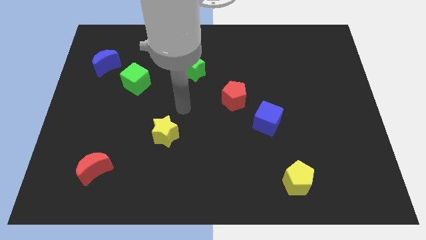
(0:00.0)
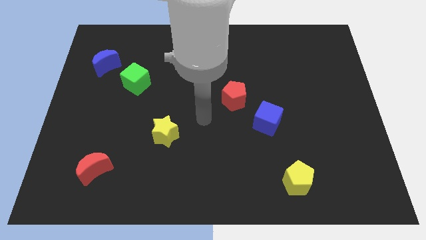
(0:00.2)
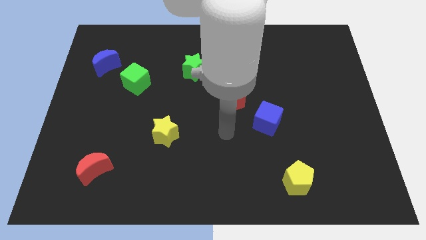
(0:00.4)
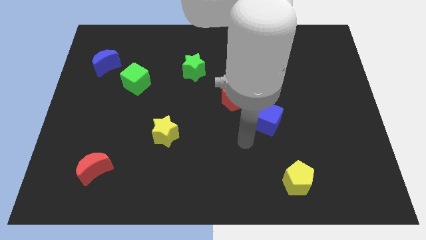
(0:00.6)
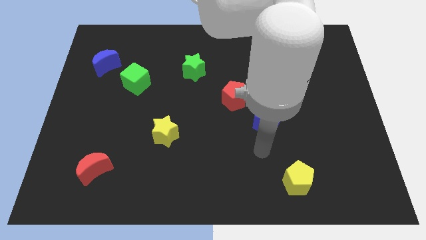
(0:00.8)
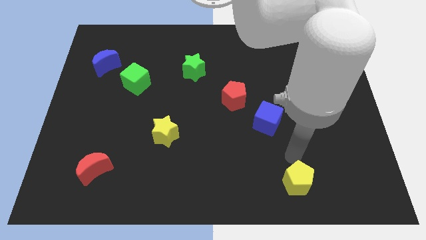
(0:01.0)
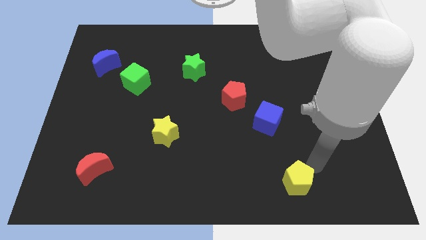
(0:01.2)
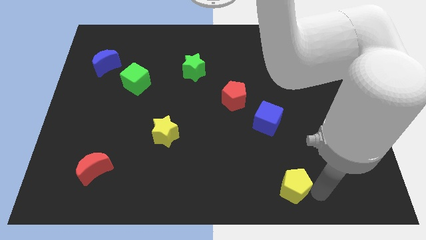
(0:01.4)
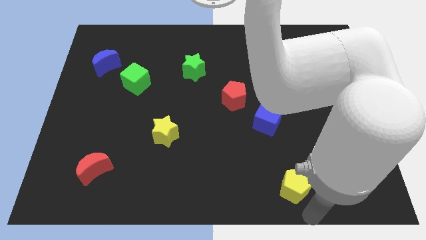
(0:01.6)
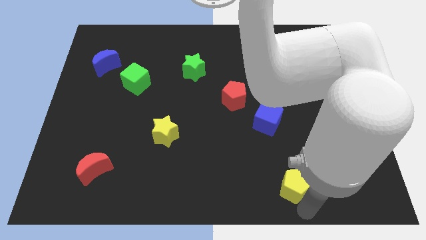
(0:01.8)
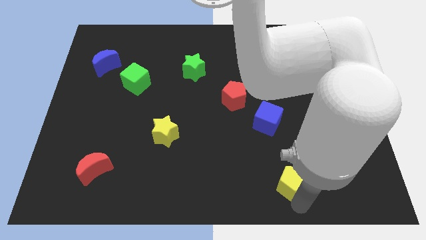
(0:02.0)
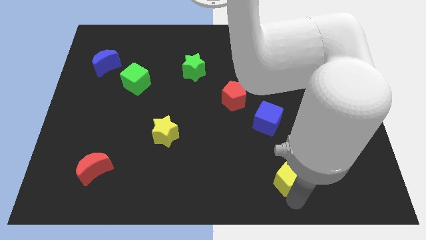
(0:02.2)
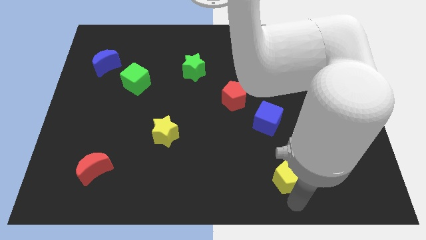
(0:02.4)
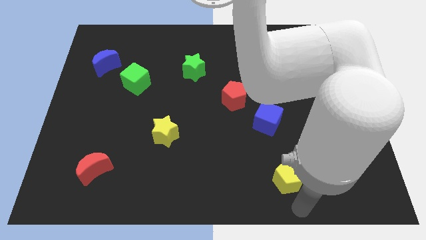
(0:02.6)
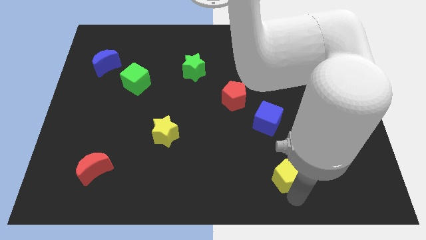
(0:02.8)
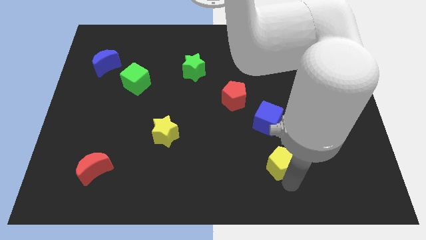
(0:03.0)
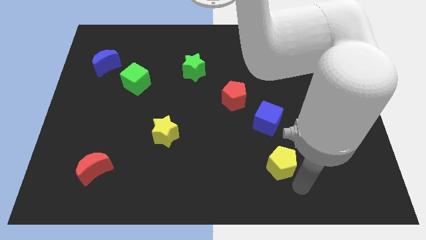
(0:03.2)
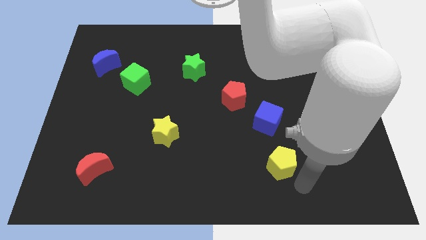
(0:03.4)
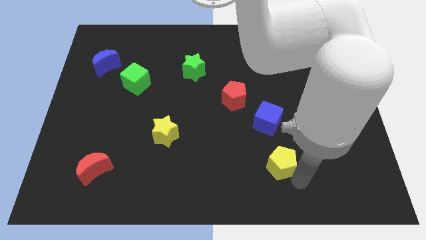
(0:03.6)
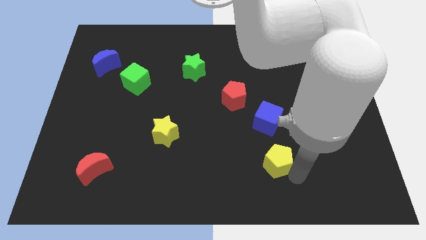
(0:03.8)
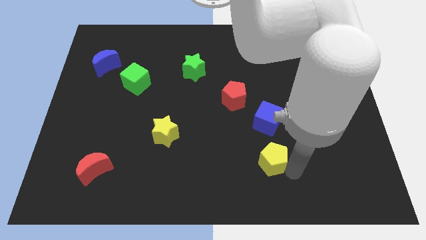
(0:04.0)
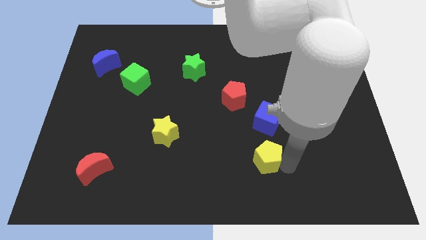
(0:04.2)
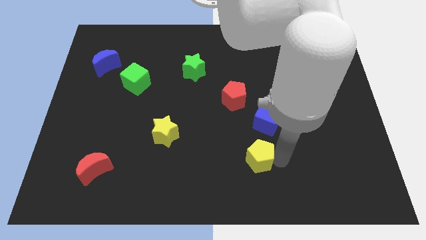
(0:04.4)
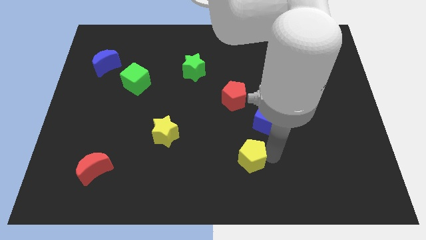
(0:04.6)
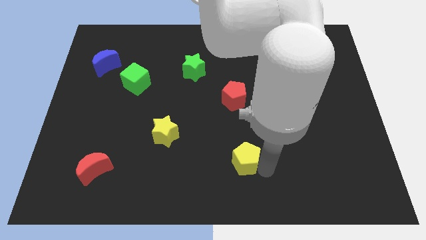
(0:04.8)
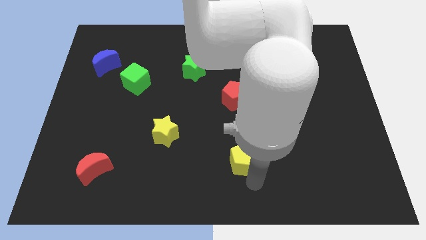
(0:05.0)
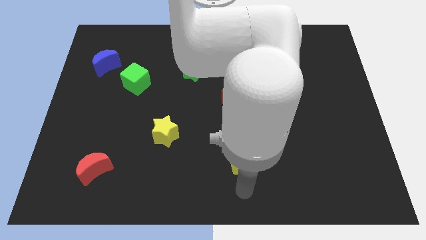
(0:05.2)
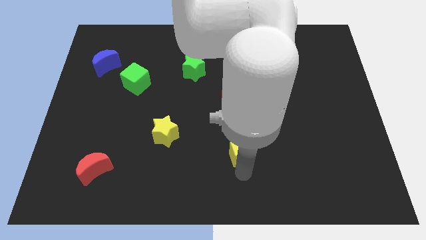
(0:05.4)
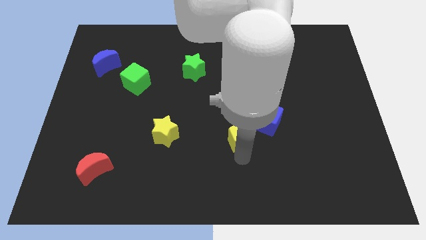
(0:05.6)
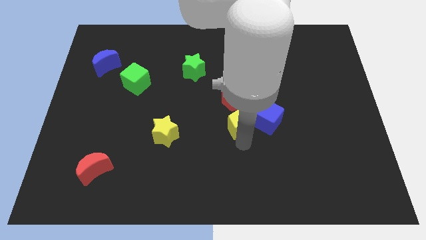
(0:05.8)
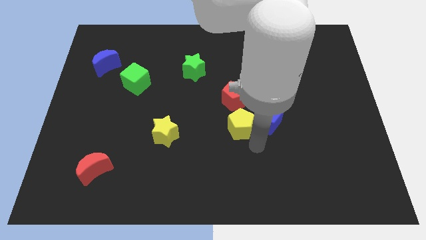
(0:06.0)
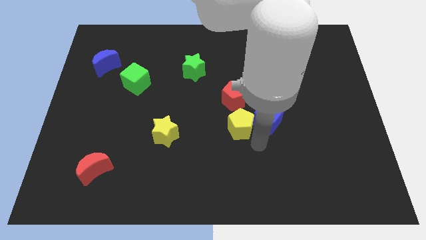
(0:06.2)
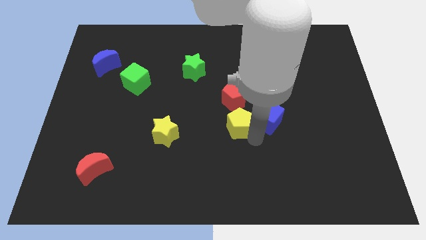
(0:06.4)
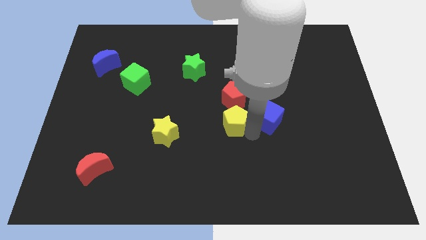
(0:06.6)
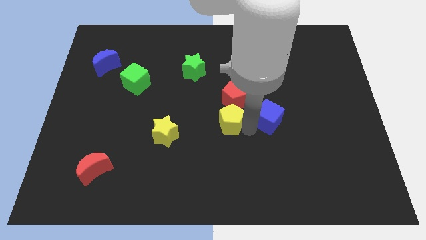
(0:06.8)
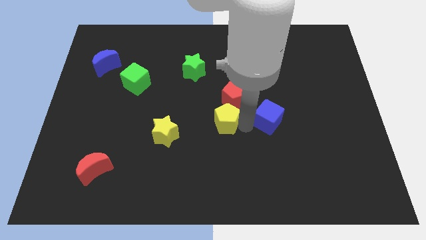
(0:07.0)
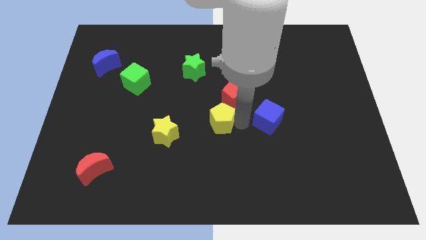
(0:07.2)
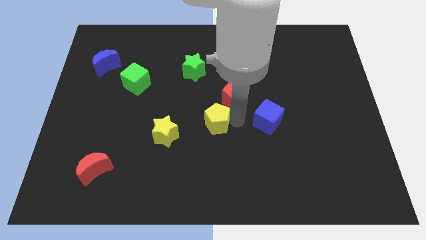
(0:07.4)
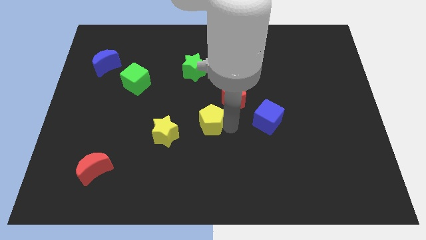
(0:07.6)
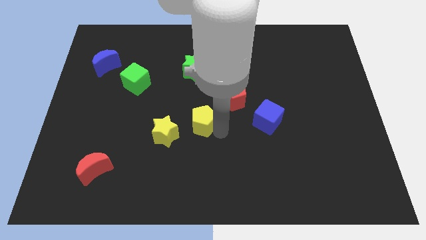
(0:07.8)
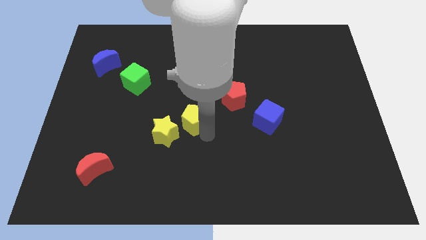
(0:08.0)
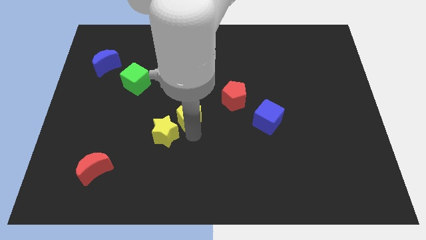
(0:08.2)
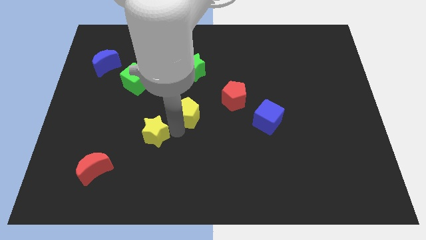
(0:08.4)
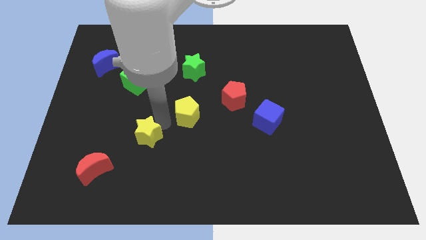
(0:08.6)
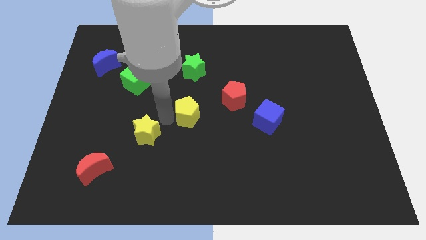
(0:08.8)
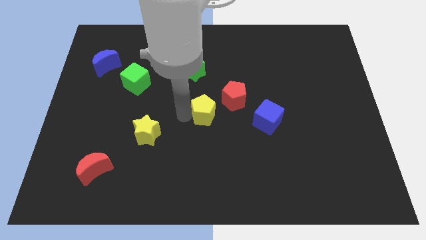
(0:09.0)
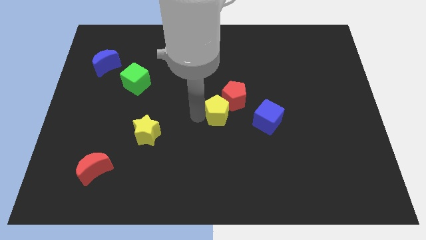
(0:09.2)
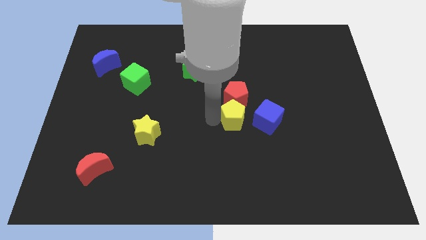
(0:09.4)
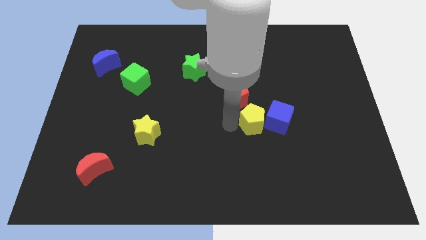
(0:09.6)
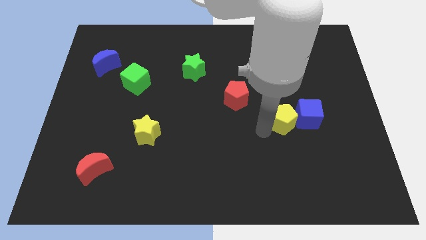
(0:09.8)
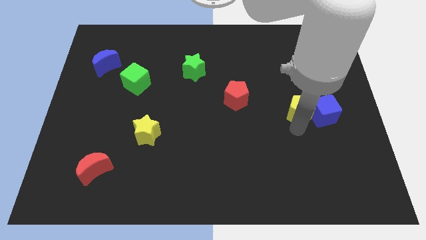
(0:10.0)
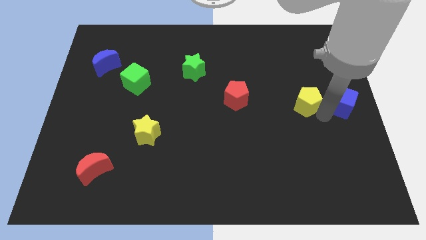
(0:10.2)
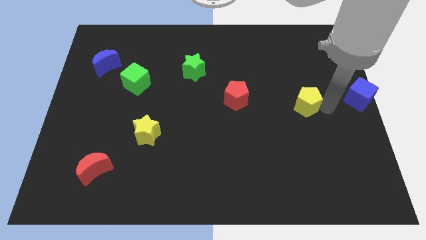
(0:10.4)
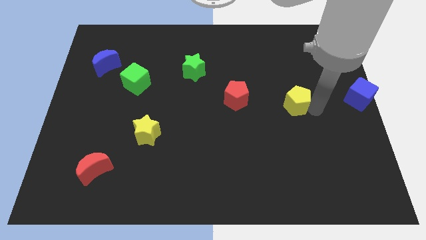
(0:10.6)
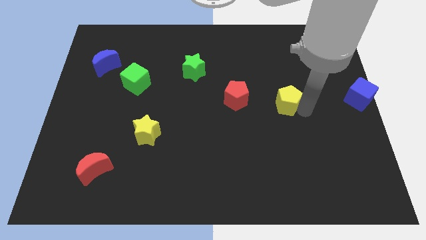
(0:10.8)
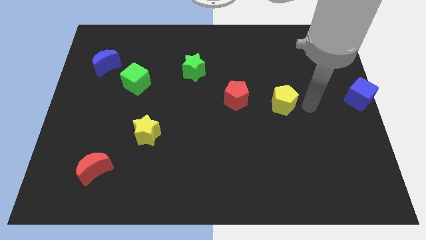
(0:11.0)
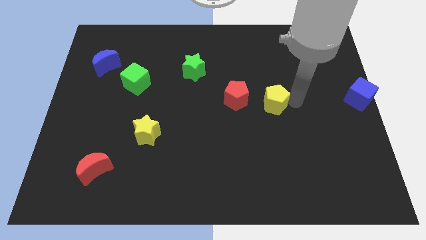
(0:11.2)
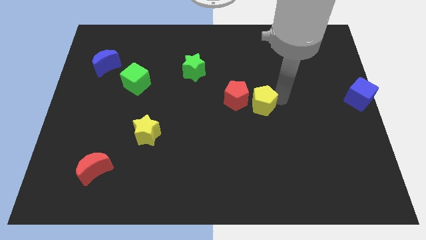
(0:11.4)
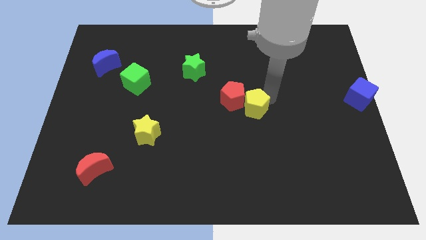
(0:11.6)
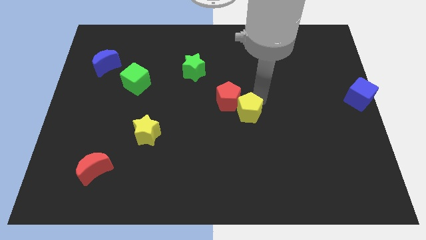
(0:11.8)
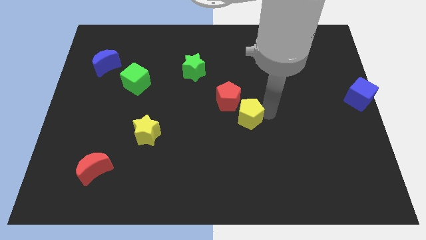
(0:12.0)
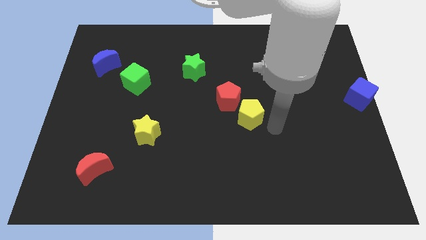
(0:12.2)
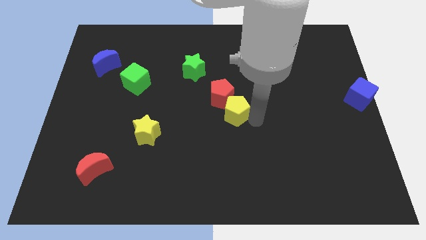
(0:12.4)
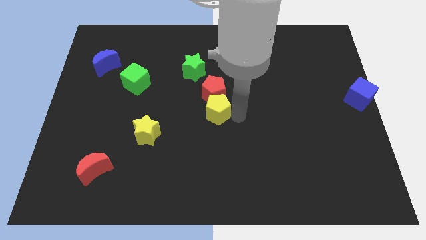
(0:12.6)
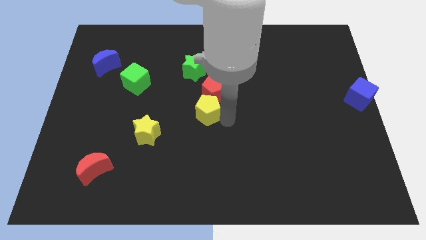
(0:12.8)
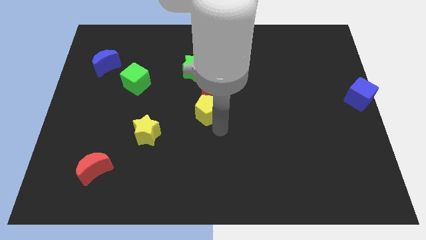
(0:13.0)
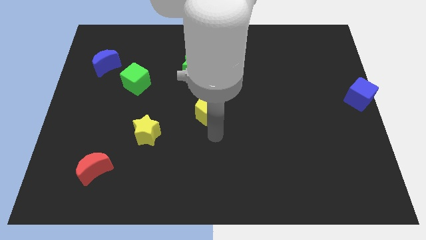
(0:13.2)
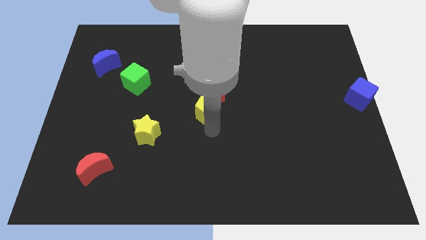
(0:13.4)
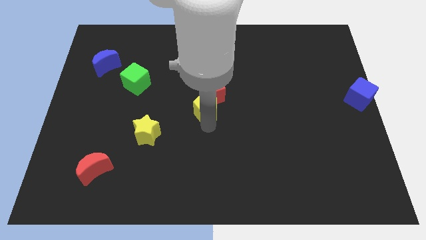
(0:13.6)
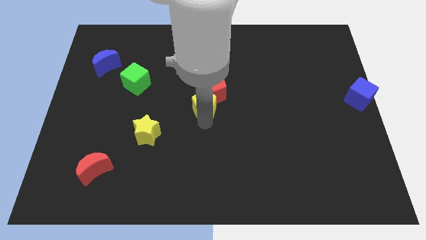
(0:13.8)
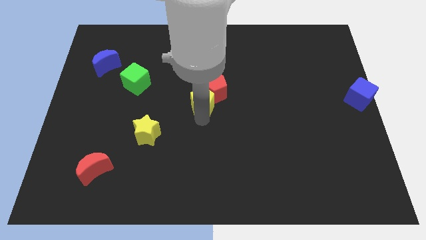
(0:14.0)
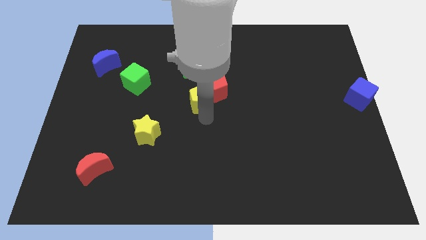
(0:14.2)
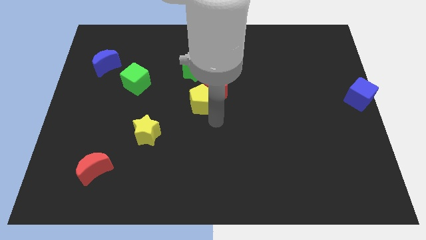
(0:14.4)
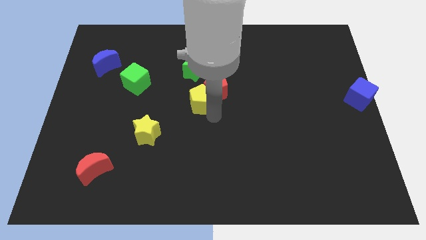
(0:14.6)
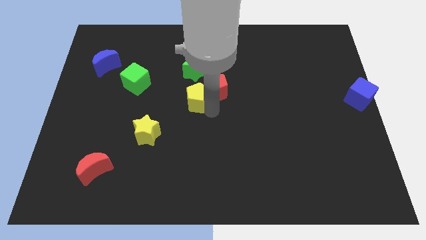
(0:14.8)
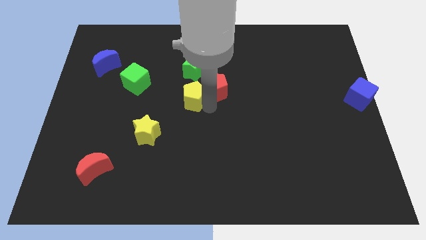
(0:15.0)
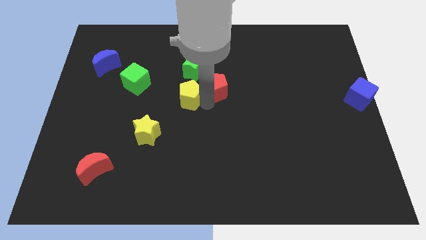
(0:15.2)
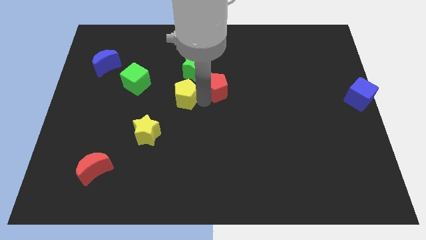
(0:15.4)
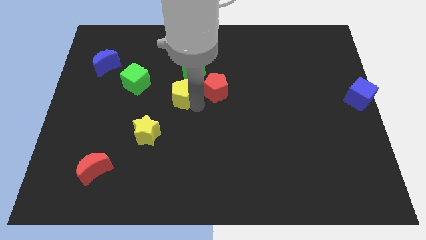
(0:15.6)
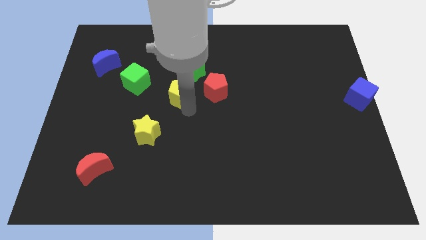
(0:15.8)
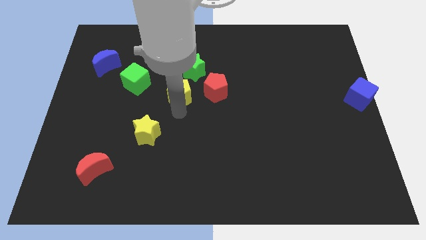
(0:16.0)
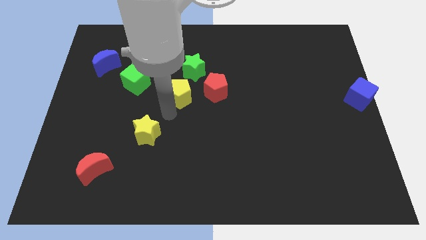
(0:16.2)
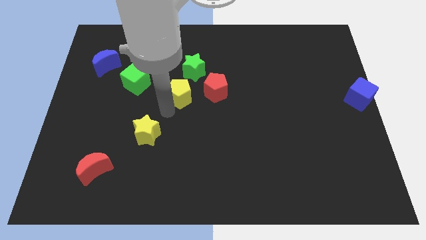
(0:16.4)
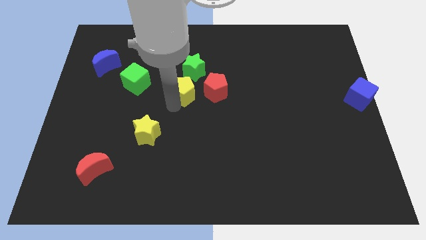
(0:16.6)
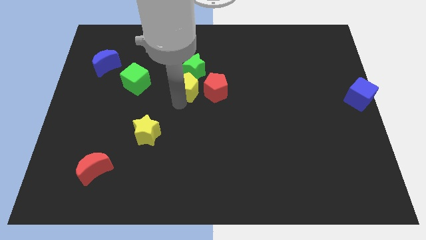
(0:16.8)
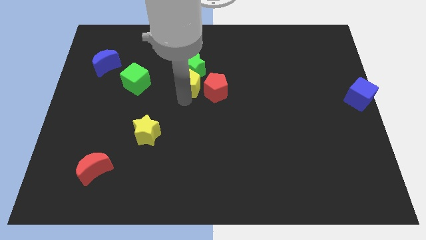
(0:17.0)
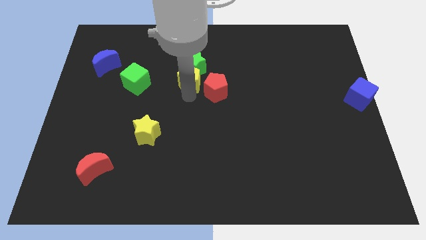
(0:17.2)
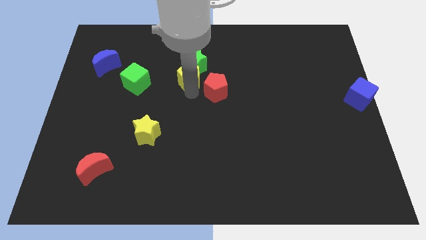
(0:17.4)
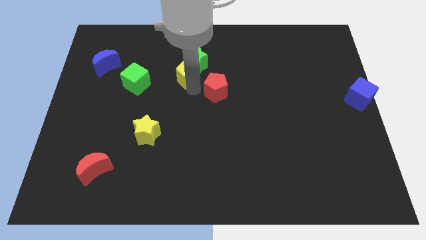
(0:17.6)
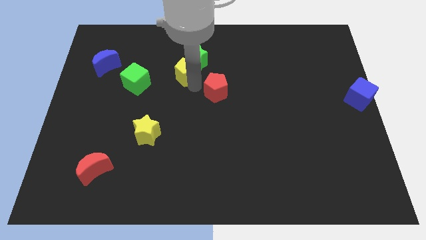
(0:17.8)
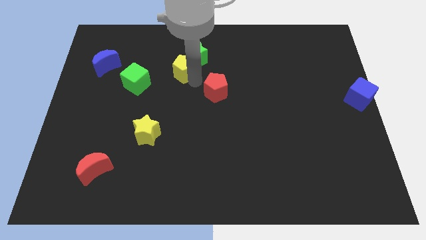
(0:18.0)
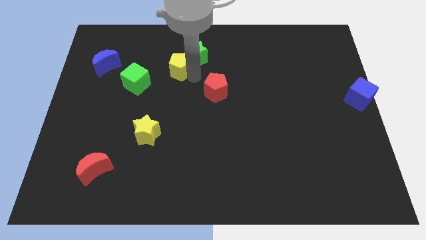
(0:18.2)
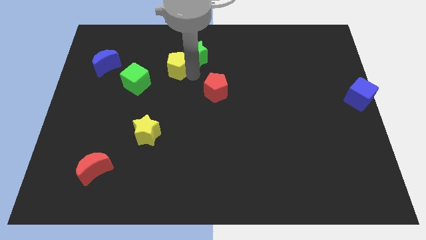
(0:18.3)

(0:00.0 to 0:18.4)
put the yellow pentagon diagonally up and to the right of the green cube
